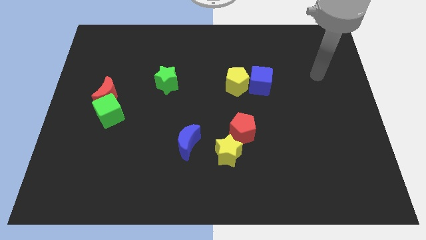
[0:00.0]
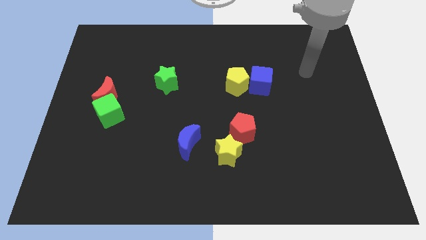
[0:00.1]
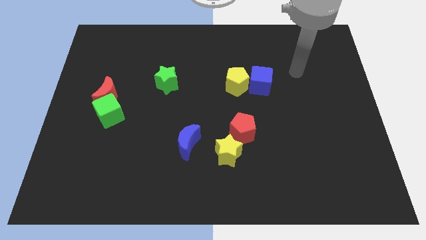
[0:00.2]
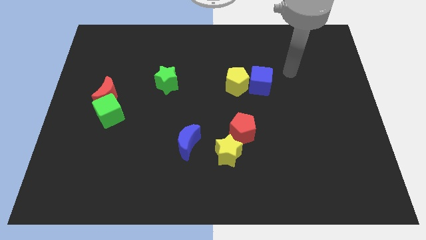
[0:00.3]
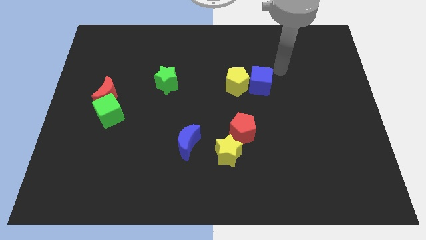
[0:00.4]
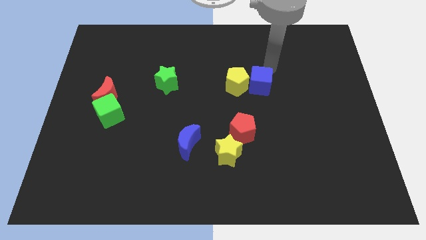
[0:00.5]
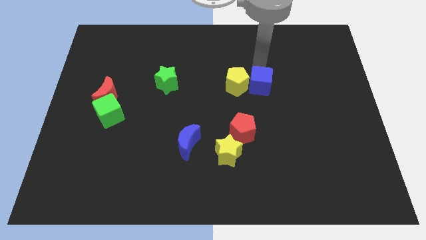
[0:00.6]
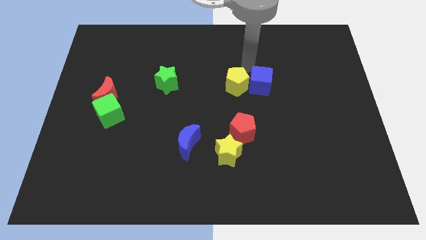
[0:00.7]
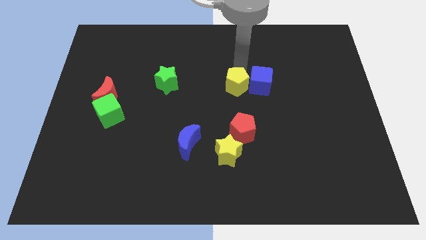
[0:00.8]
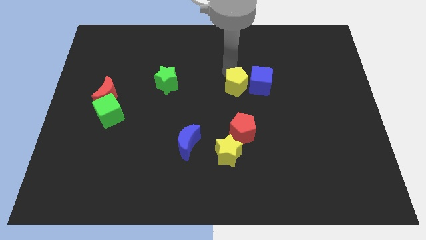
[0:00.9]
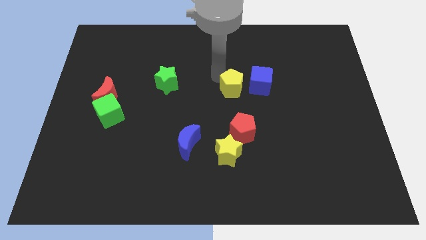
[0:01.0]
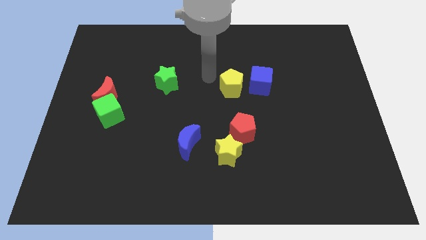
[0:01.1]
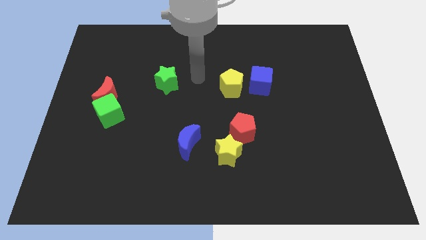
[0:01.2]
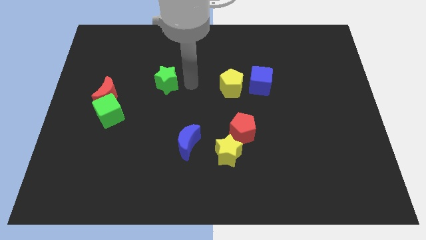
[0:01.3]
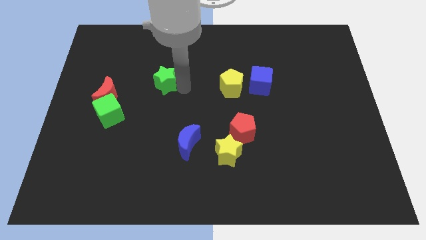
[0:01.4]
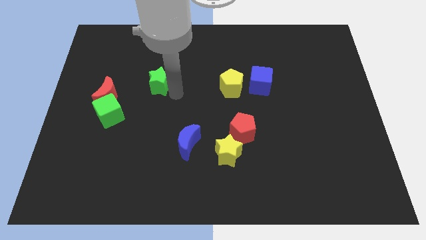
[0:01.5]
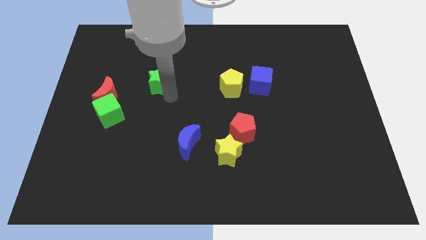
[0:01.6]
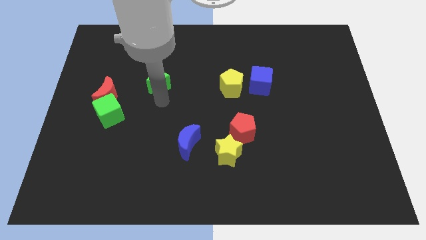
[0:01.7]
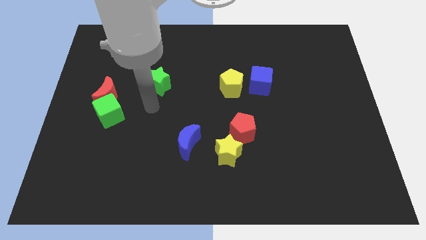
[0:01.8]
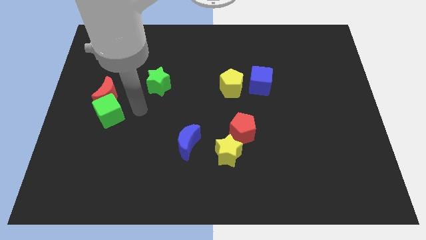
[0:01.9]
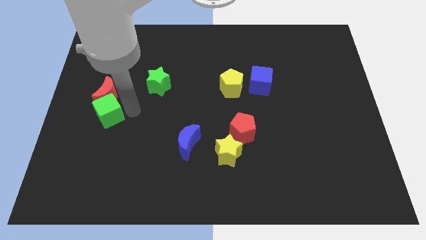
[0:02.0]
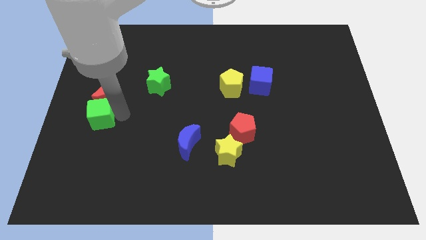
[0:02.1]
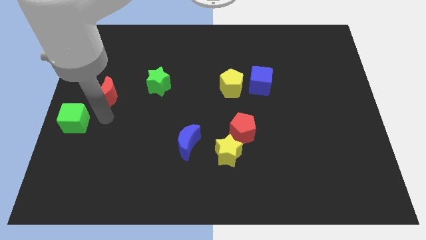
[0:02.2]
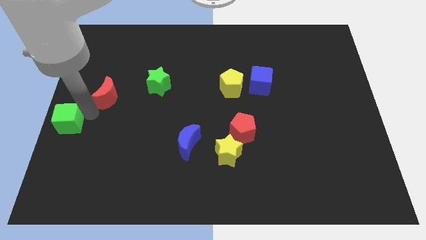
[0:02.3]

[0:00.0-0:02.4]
pull the red moon apart from the green cube

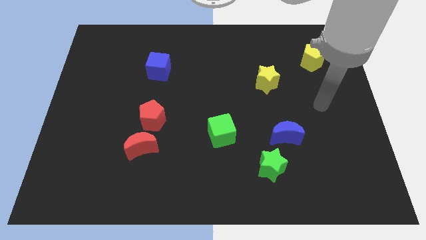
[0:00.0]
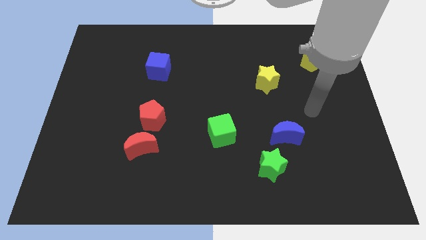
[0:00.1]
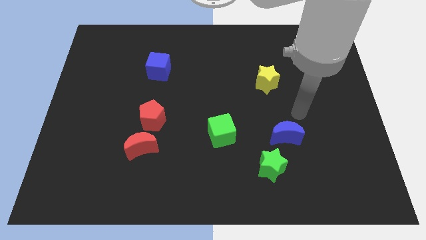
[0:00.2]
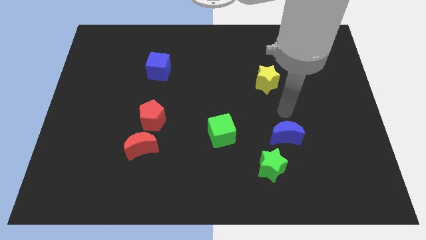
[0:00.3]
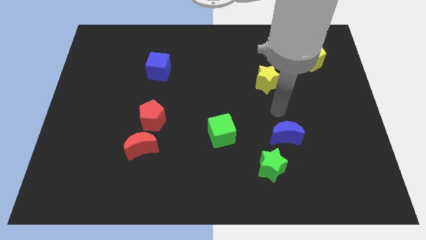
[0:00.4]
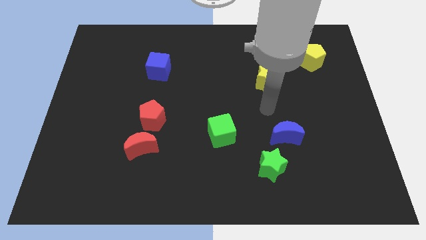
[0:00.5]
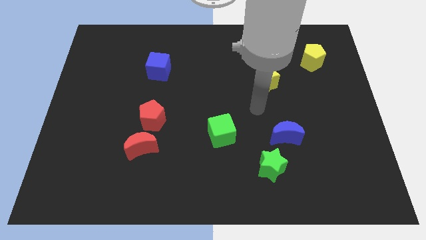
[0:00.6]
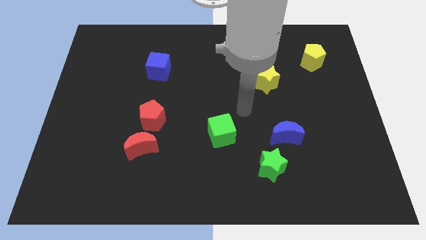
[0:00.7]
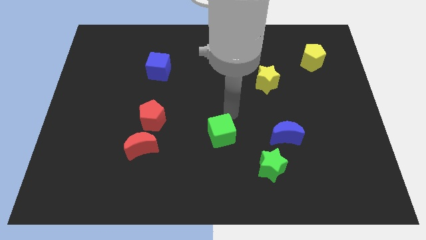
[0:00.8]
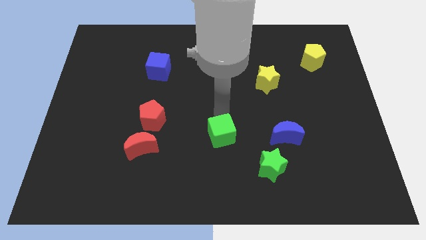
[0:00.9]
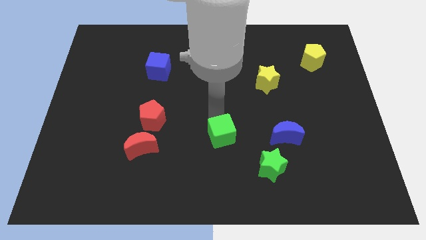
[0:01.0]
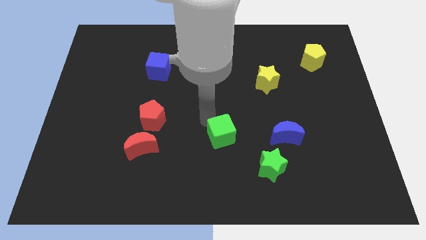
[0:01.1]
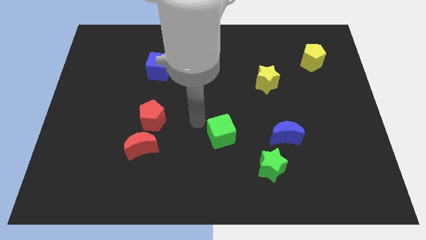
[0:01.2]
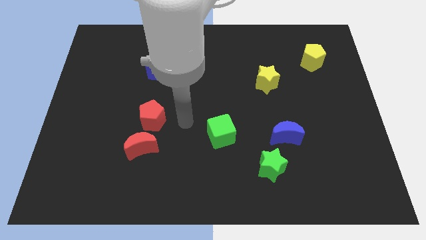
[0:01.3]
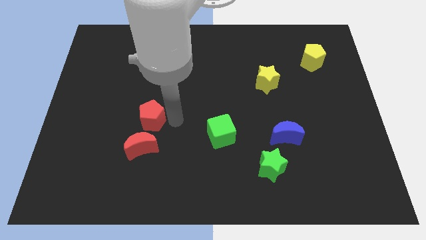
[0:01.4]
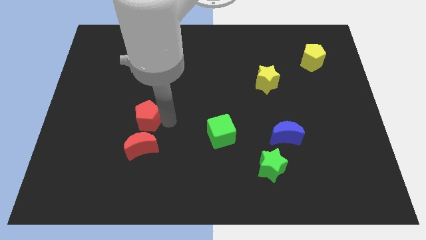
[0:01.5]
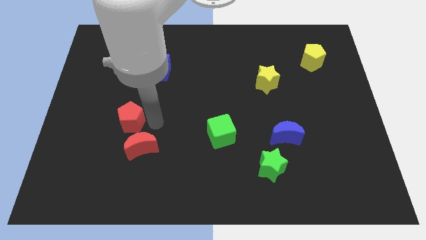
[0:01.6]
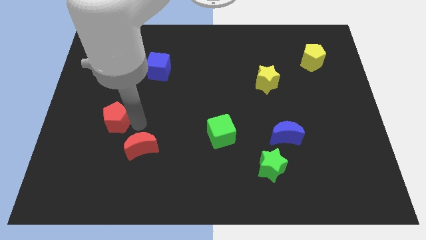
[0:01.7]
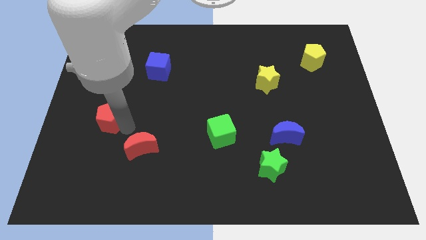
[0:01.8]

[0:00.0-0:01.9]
separate the red moon from the red pentagon

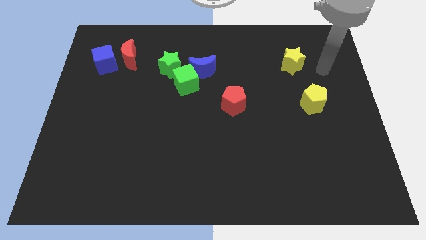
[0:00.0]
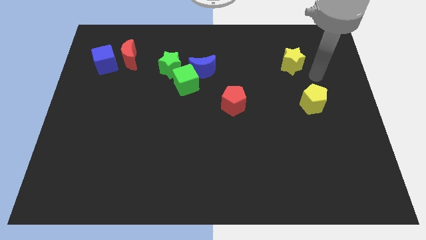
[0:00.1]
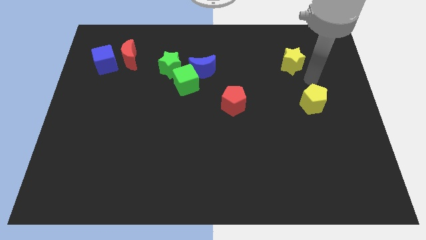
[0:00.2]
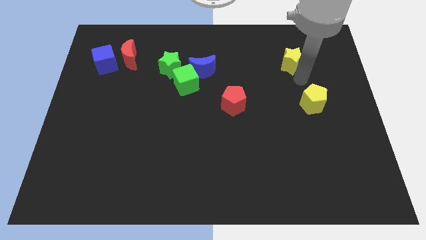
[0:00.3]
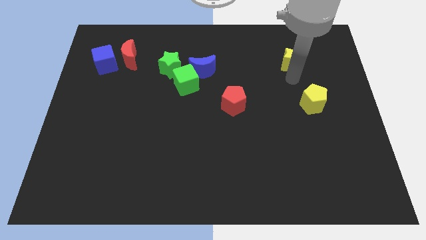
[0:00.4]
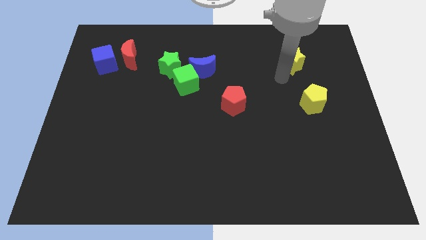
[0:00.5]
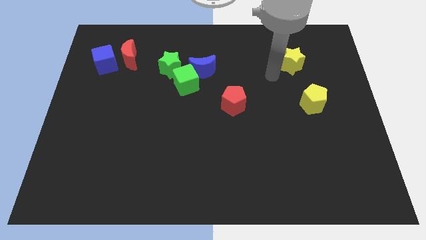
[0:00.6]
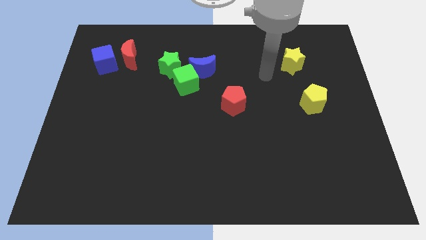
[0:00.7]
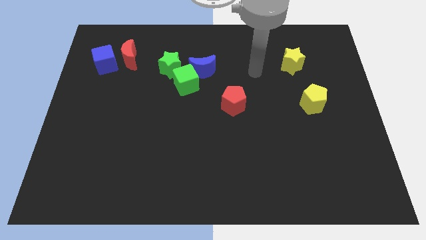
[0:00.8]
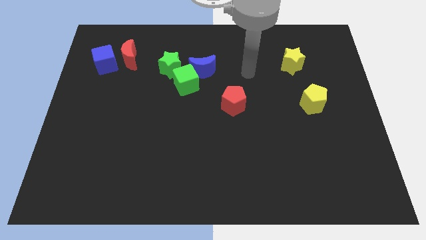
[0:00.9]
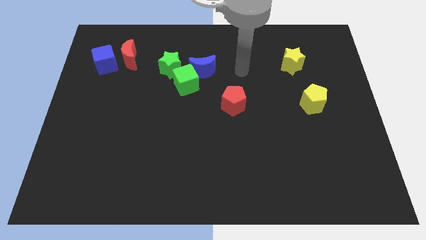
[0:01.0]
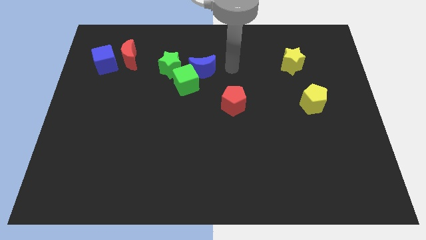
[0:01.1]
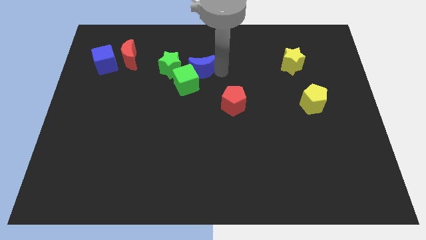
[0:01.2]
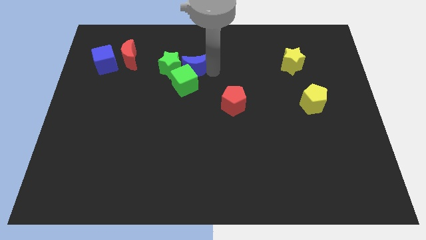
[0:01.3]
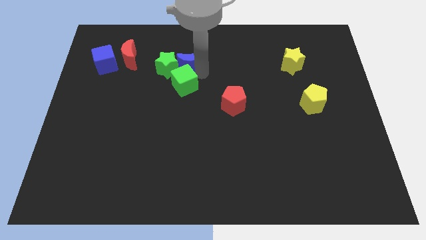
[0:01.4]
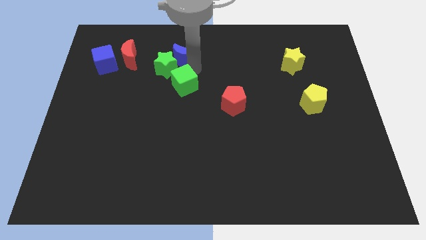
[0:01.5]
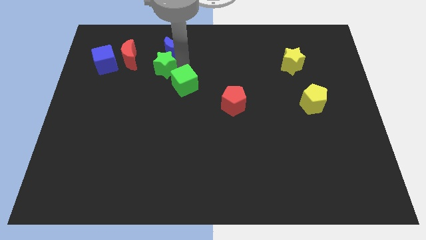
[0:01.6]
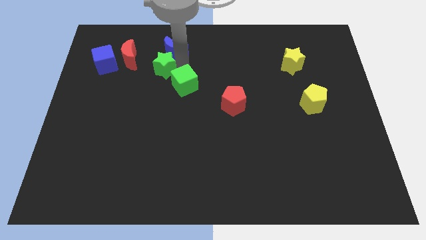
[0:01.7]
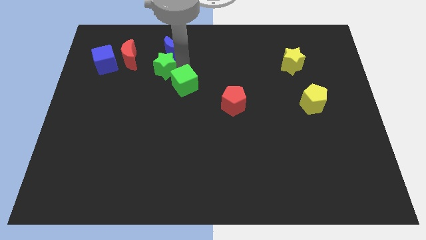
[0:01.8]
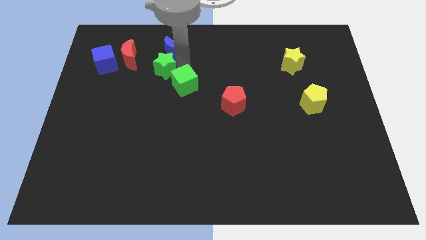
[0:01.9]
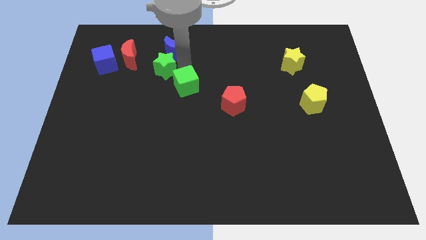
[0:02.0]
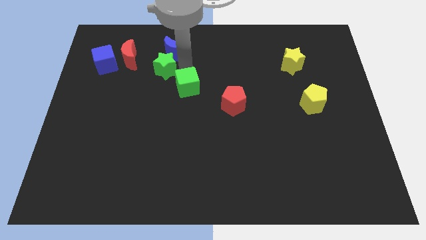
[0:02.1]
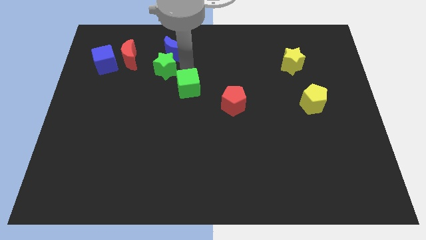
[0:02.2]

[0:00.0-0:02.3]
separate the green cube from the blue moon and green star

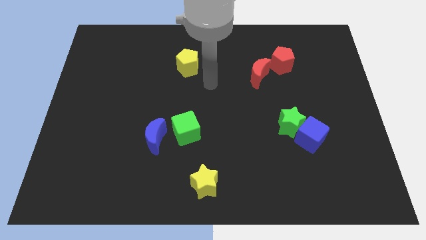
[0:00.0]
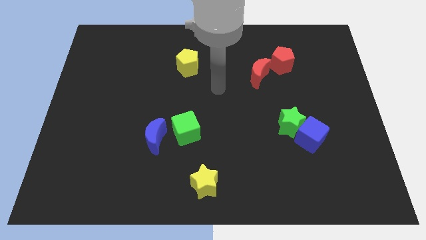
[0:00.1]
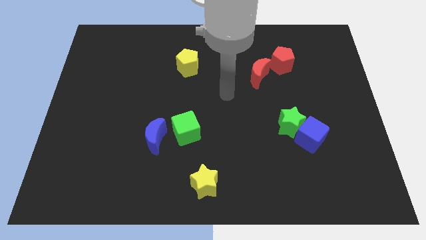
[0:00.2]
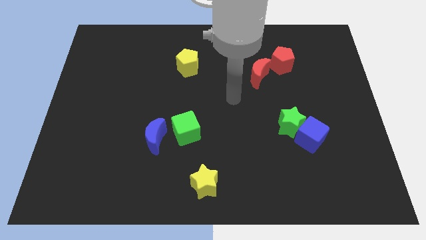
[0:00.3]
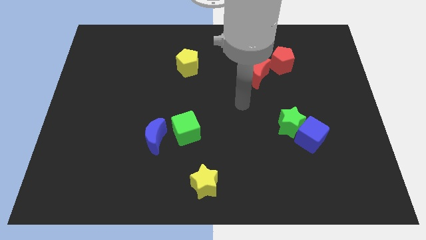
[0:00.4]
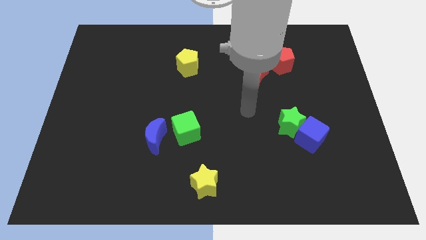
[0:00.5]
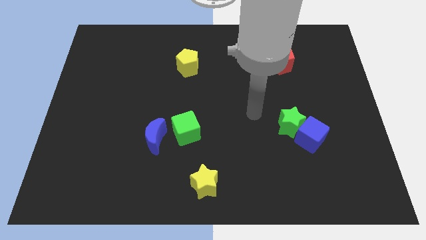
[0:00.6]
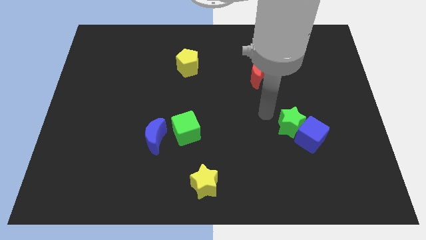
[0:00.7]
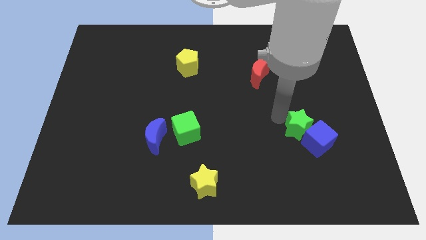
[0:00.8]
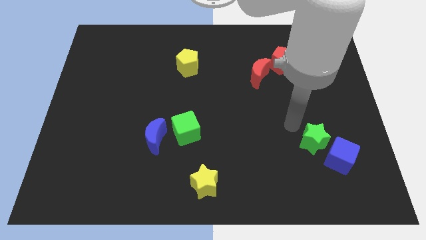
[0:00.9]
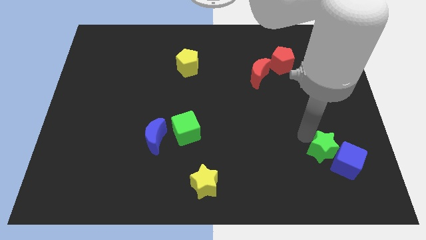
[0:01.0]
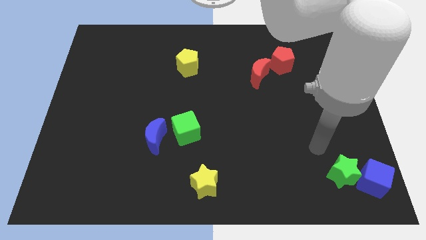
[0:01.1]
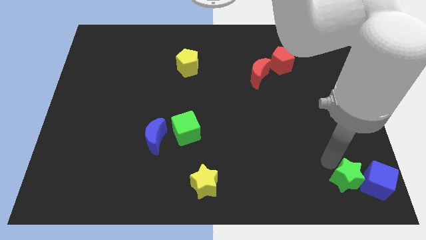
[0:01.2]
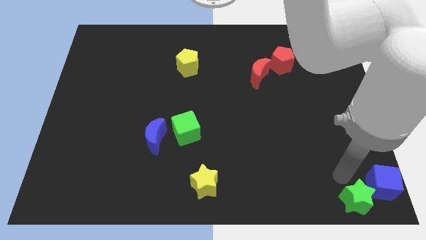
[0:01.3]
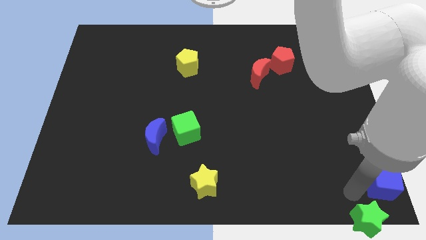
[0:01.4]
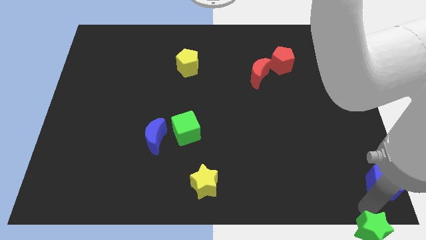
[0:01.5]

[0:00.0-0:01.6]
pull the blue cube apart from the green star

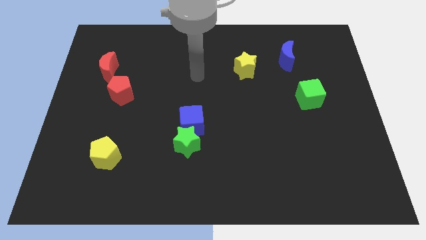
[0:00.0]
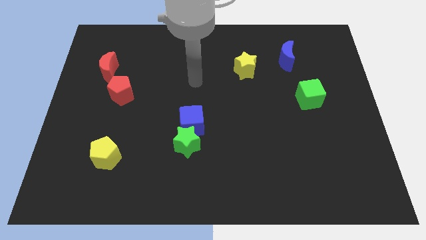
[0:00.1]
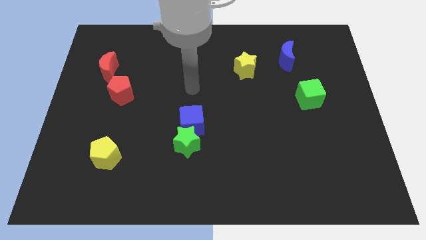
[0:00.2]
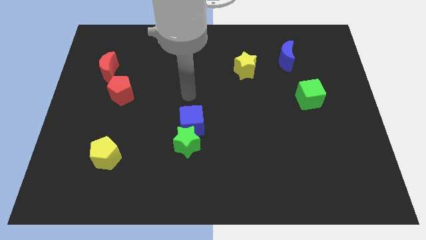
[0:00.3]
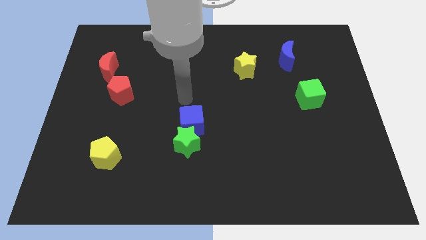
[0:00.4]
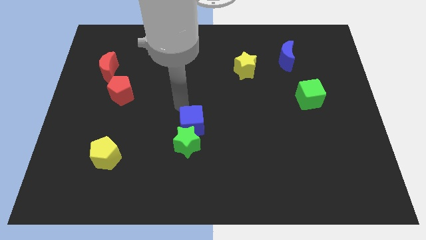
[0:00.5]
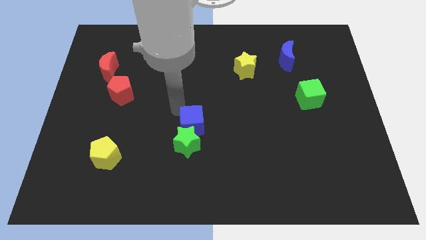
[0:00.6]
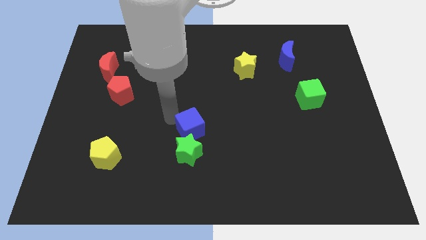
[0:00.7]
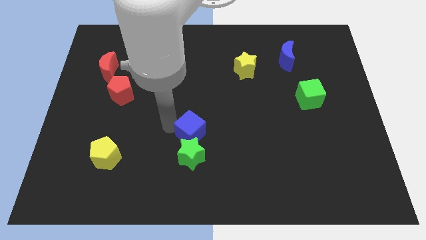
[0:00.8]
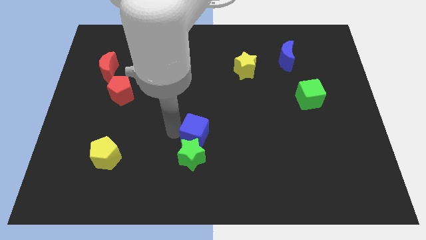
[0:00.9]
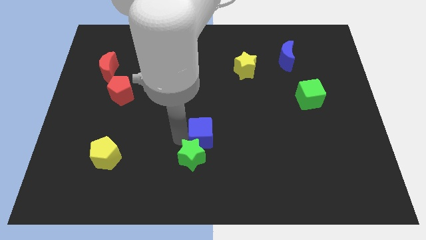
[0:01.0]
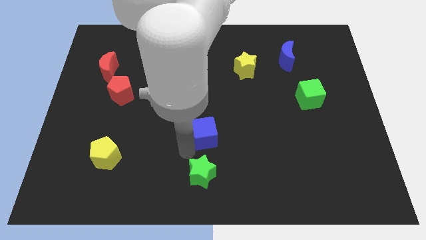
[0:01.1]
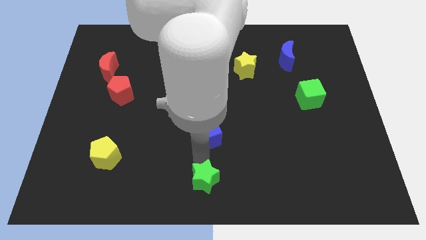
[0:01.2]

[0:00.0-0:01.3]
separate the blue cube from the green star
